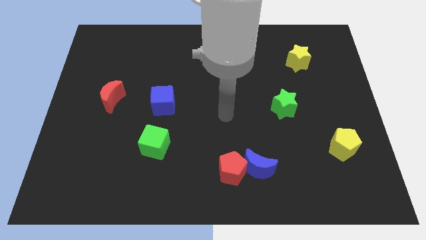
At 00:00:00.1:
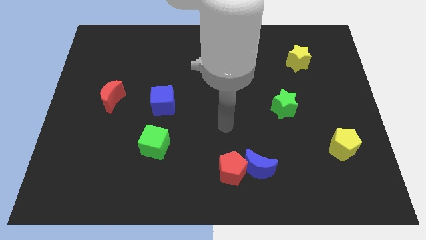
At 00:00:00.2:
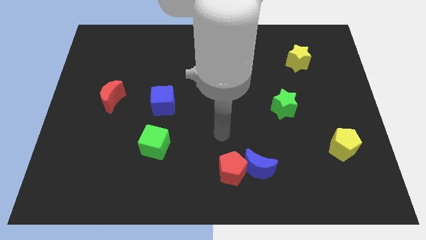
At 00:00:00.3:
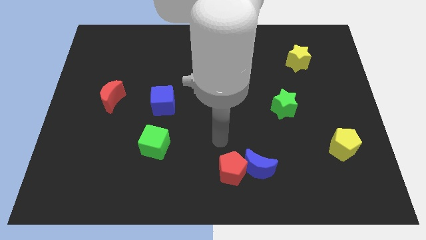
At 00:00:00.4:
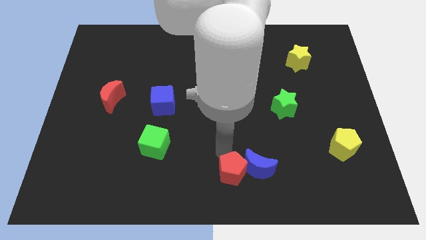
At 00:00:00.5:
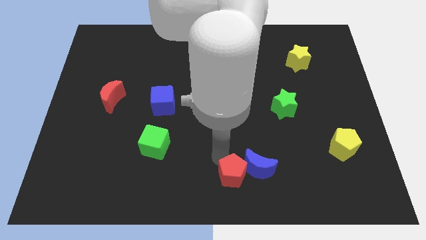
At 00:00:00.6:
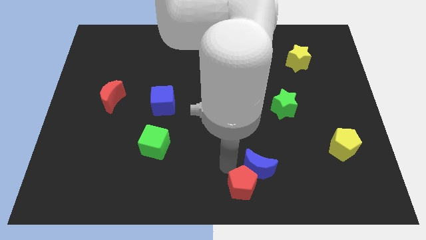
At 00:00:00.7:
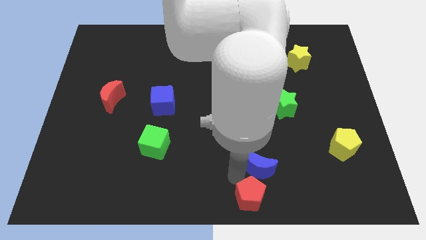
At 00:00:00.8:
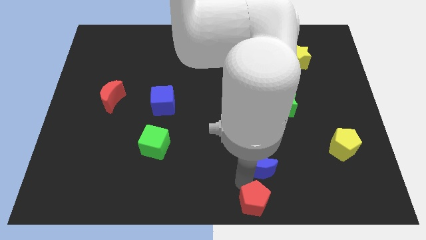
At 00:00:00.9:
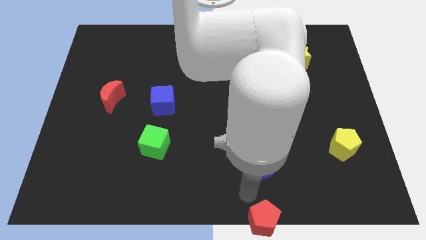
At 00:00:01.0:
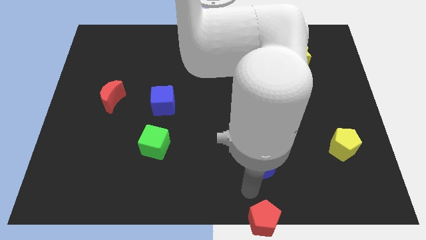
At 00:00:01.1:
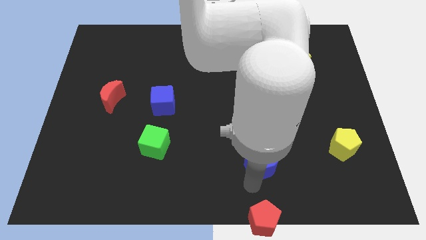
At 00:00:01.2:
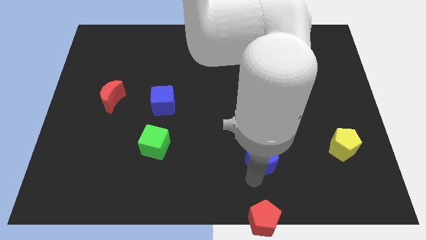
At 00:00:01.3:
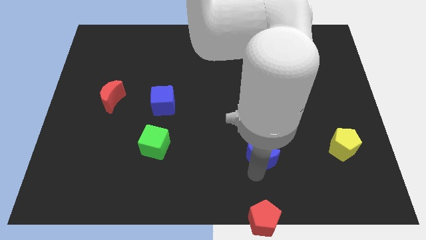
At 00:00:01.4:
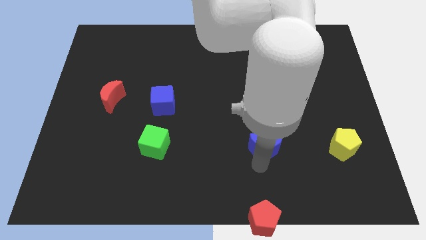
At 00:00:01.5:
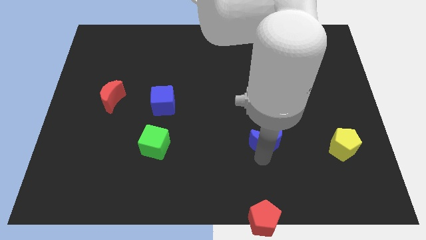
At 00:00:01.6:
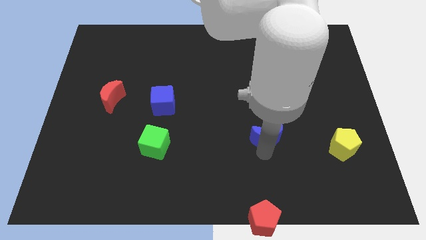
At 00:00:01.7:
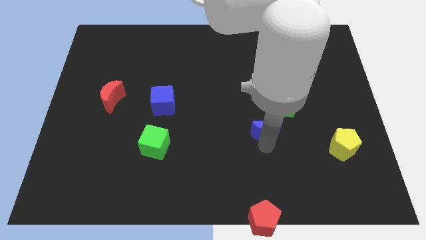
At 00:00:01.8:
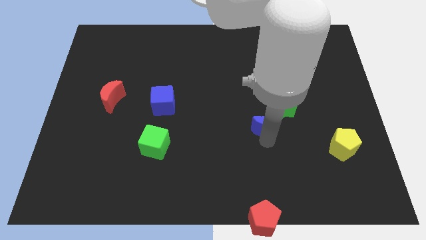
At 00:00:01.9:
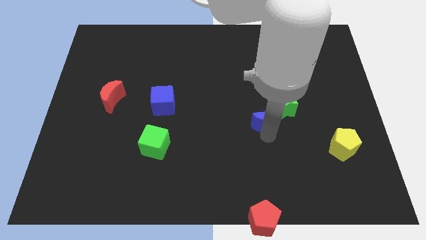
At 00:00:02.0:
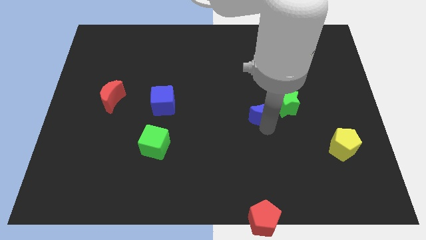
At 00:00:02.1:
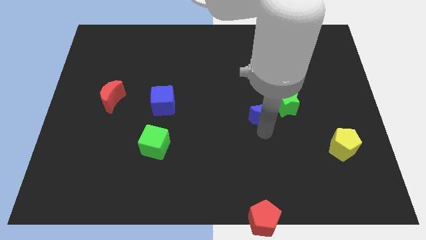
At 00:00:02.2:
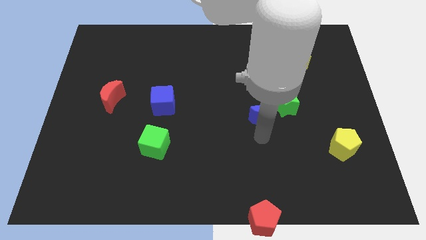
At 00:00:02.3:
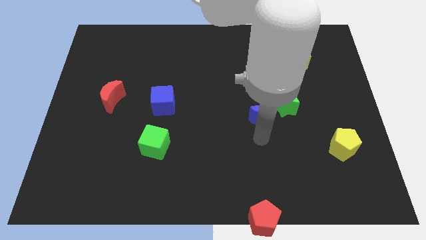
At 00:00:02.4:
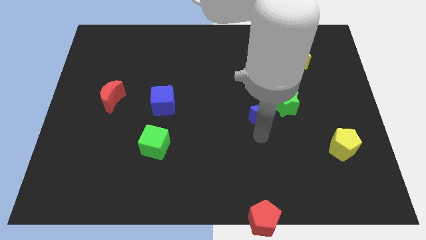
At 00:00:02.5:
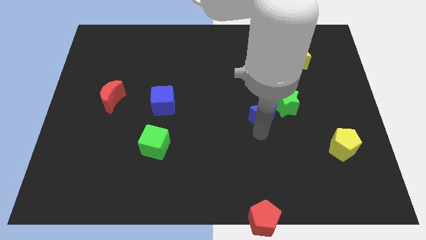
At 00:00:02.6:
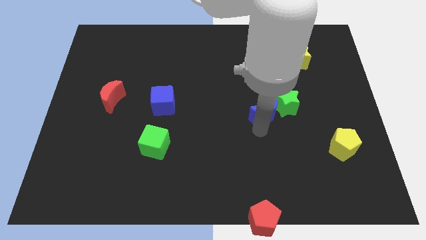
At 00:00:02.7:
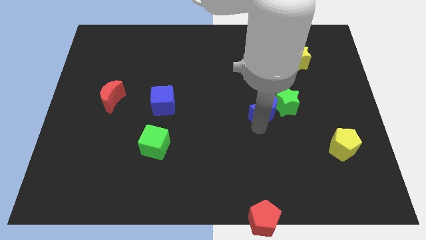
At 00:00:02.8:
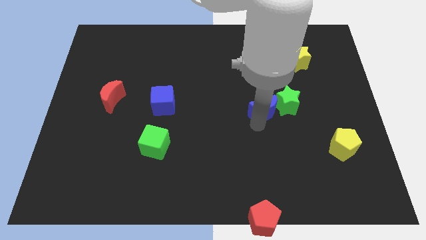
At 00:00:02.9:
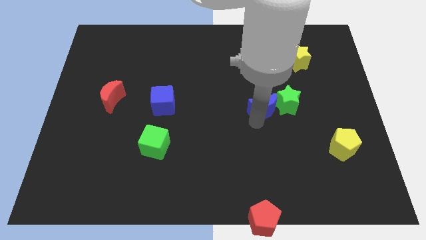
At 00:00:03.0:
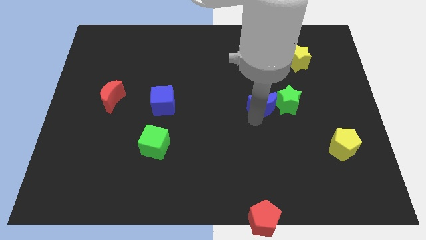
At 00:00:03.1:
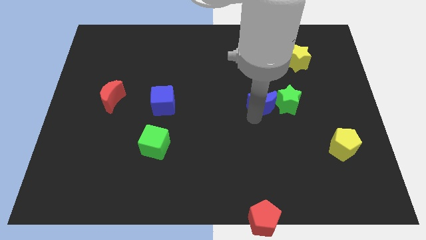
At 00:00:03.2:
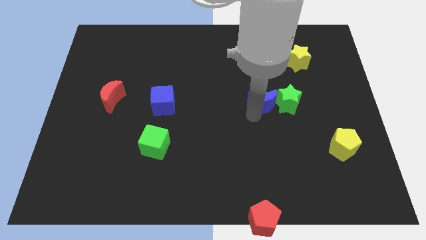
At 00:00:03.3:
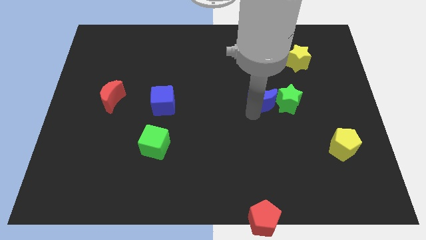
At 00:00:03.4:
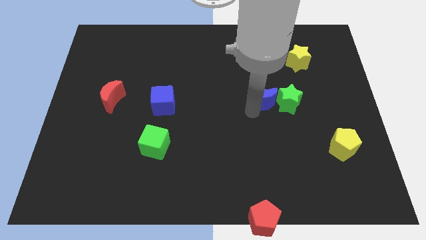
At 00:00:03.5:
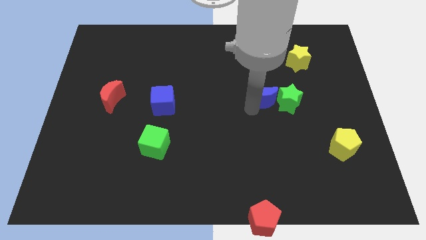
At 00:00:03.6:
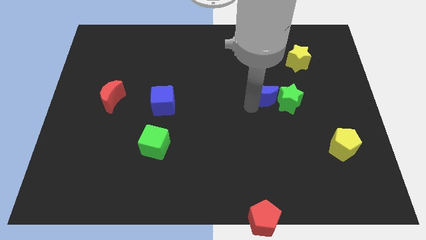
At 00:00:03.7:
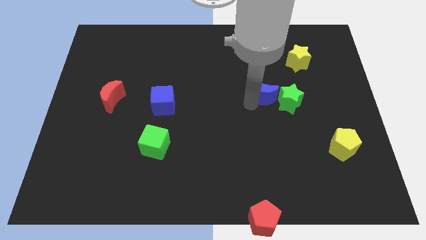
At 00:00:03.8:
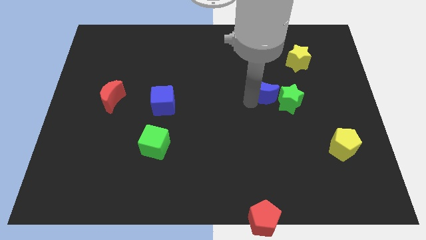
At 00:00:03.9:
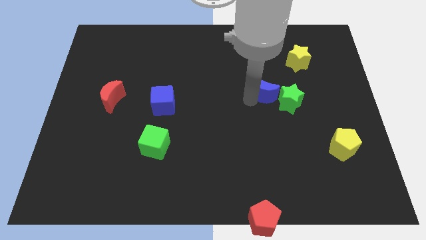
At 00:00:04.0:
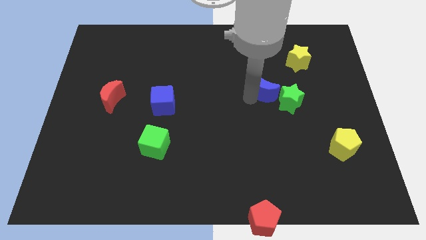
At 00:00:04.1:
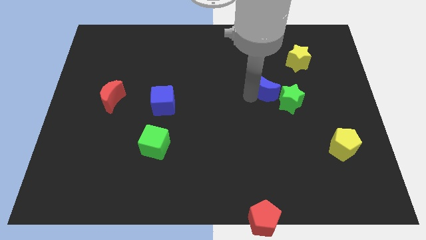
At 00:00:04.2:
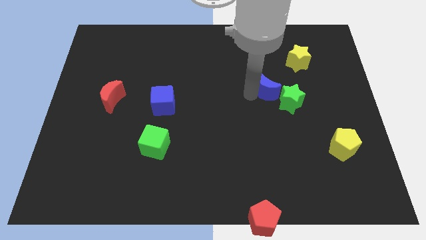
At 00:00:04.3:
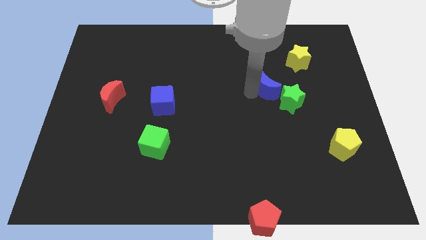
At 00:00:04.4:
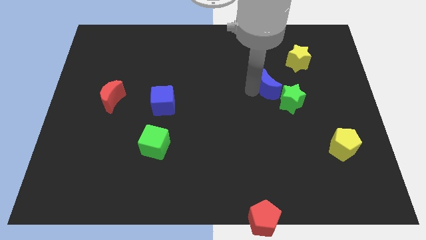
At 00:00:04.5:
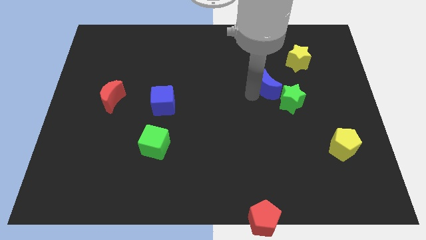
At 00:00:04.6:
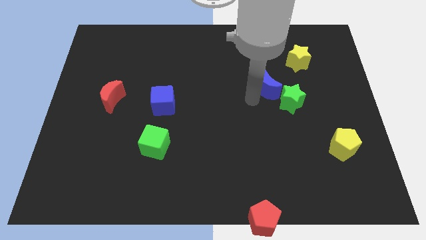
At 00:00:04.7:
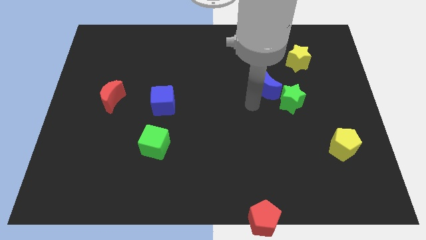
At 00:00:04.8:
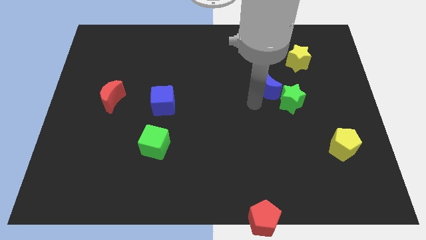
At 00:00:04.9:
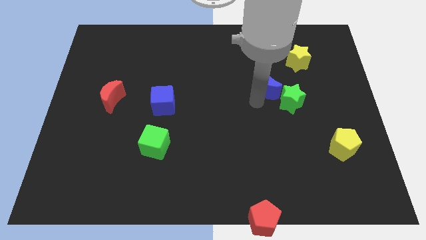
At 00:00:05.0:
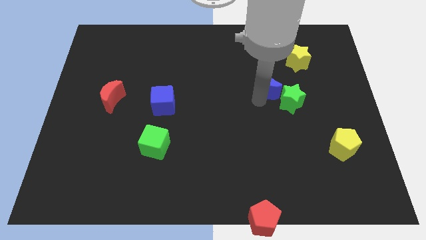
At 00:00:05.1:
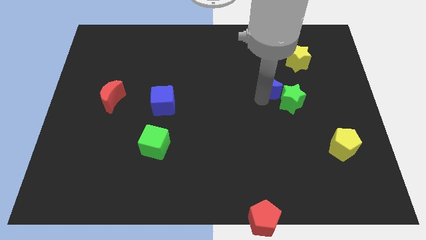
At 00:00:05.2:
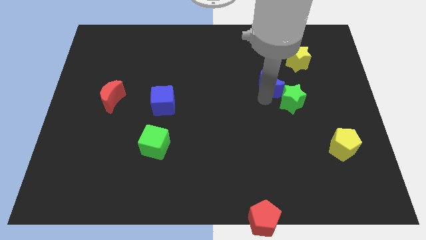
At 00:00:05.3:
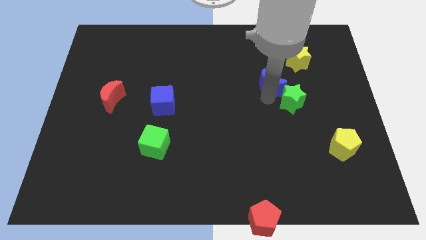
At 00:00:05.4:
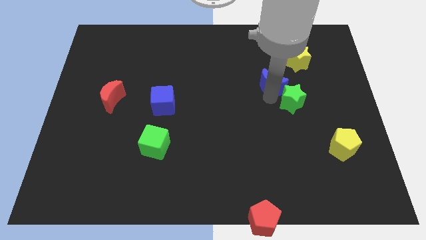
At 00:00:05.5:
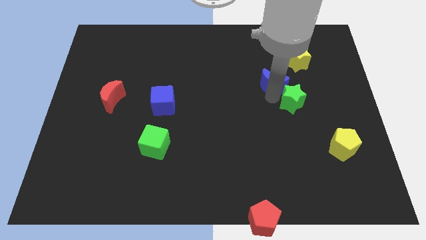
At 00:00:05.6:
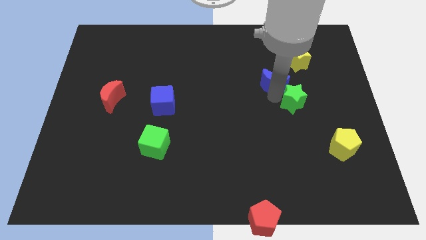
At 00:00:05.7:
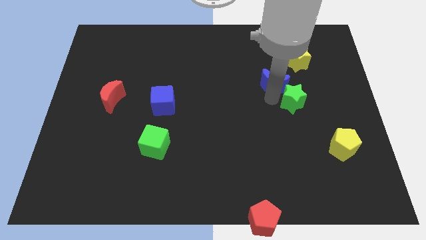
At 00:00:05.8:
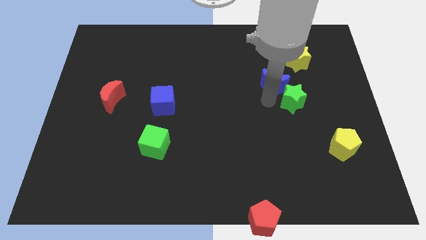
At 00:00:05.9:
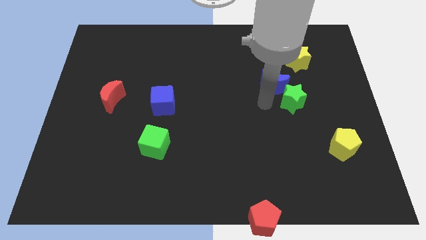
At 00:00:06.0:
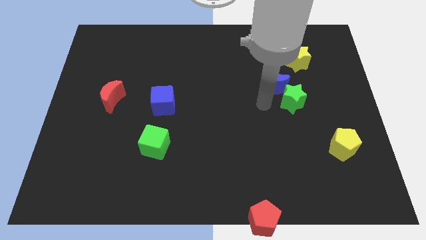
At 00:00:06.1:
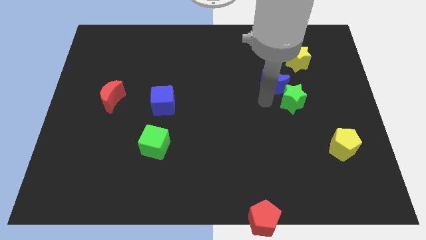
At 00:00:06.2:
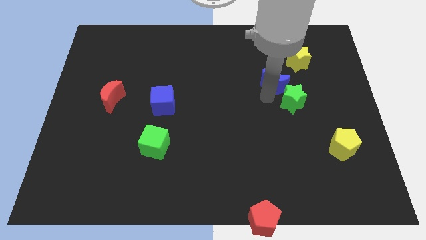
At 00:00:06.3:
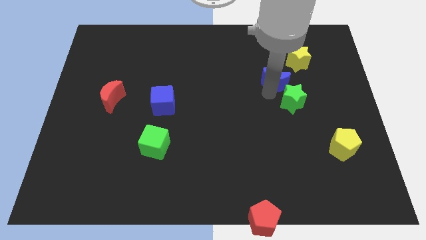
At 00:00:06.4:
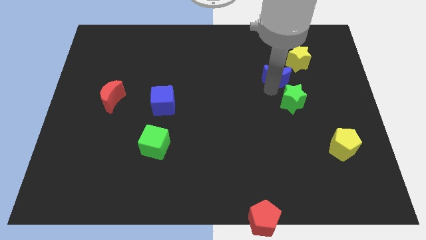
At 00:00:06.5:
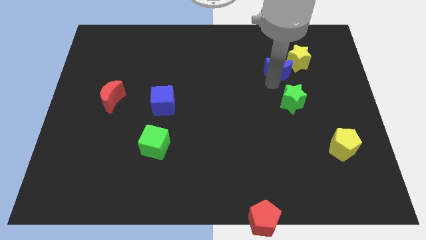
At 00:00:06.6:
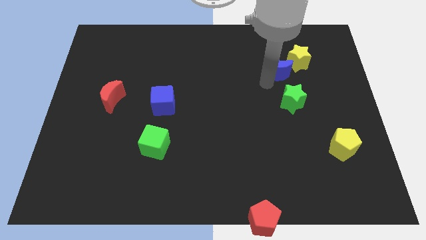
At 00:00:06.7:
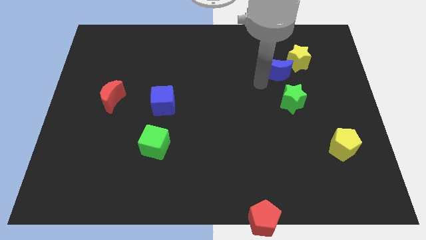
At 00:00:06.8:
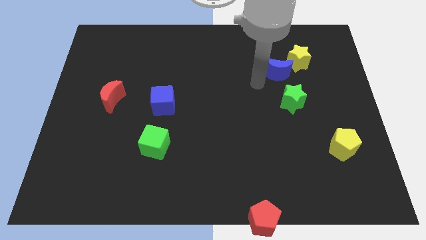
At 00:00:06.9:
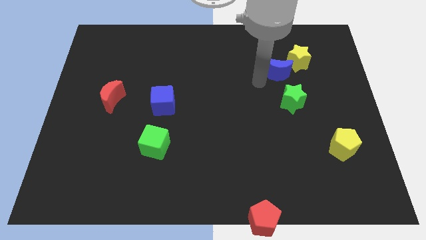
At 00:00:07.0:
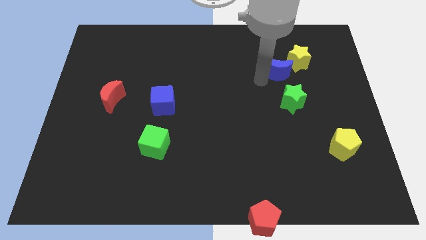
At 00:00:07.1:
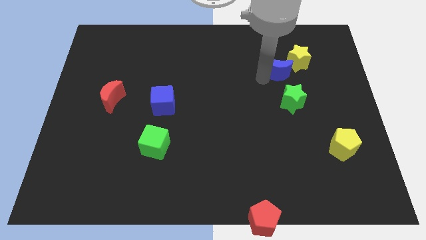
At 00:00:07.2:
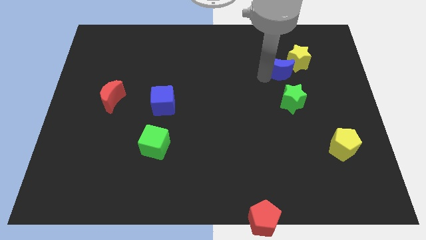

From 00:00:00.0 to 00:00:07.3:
push the blue moon to the yellow star
